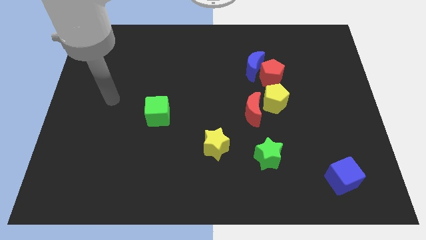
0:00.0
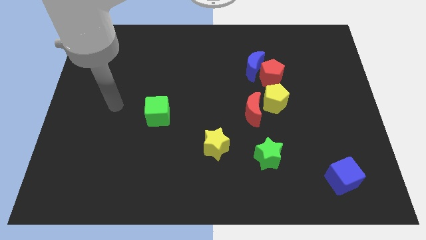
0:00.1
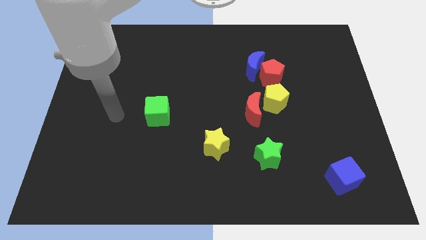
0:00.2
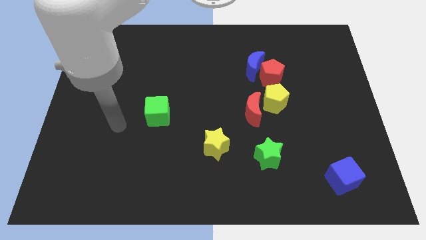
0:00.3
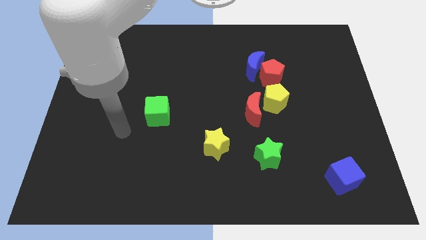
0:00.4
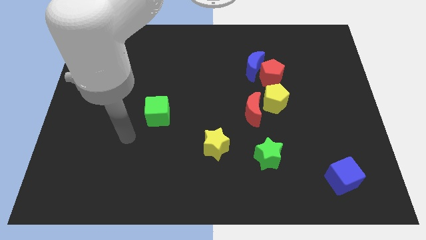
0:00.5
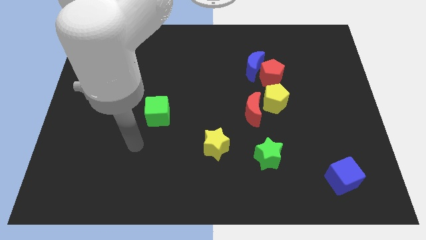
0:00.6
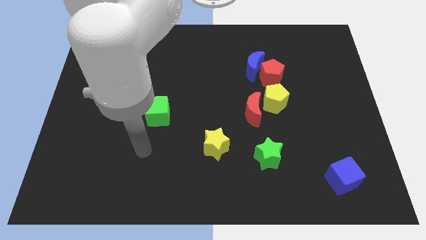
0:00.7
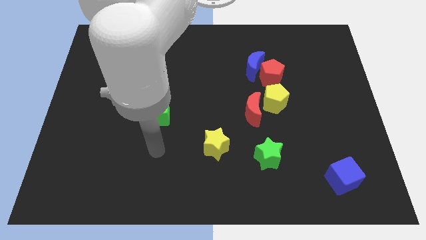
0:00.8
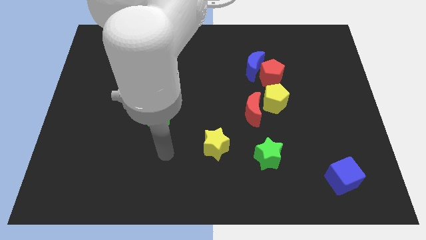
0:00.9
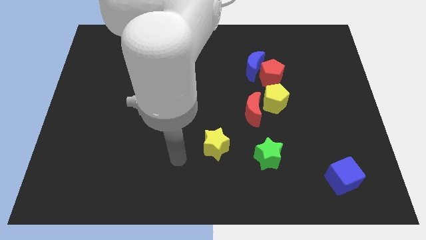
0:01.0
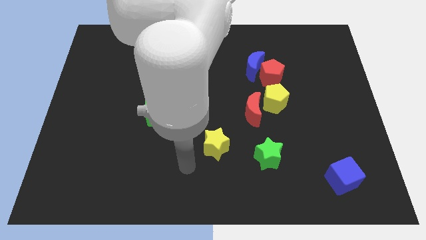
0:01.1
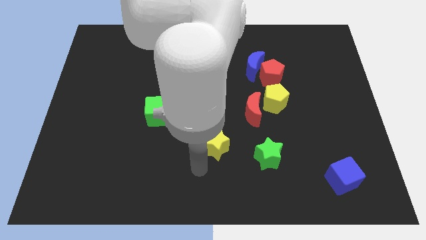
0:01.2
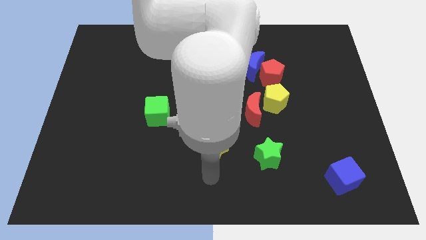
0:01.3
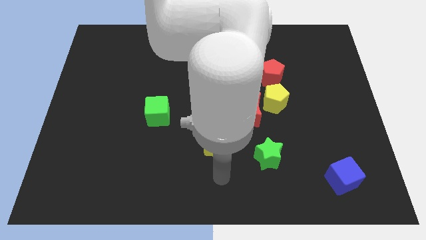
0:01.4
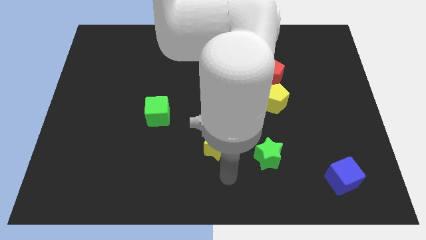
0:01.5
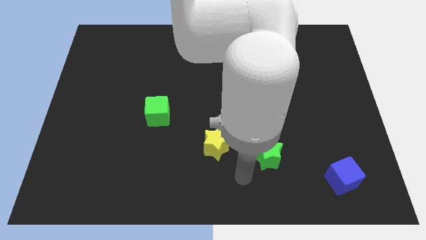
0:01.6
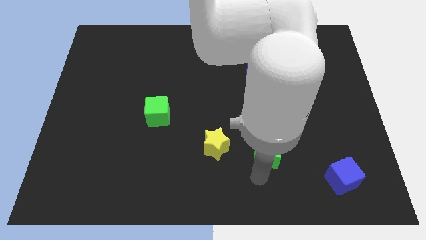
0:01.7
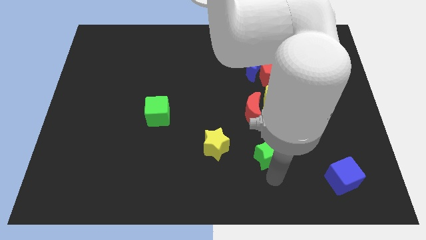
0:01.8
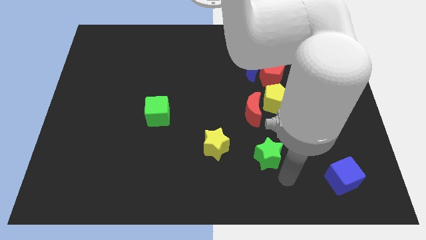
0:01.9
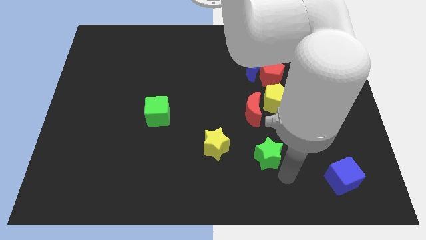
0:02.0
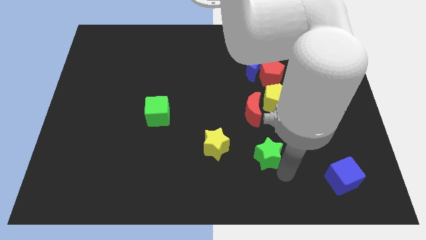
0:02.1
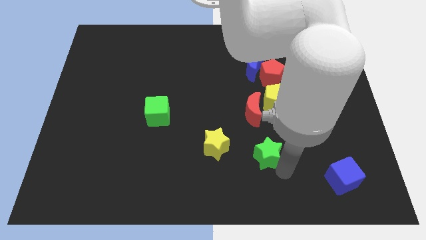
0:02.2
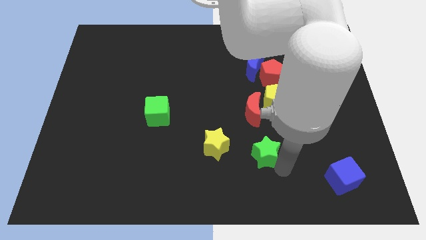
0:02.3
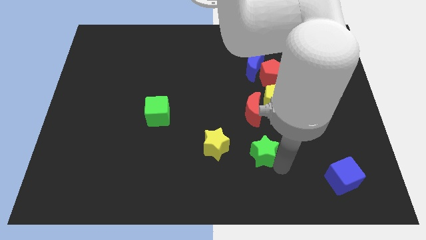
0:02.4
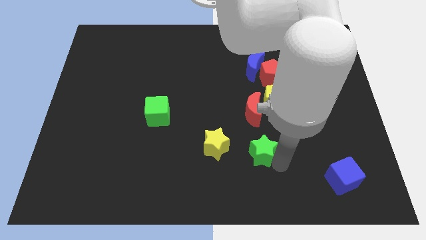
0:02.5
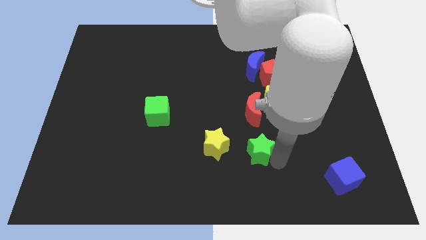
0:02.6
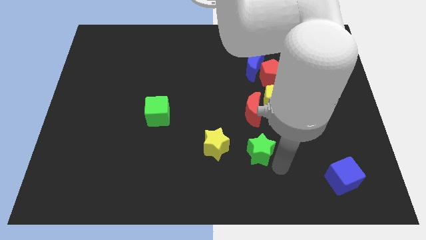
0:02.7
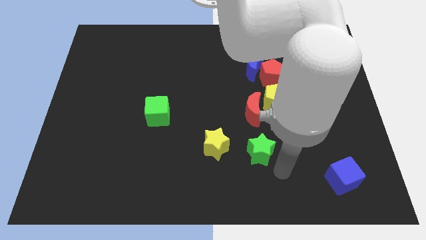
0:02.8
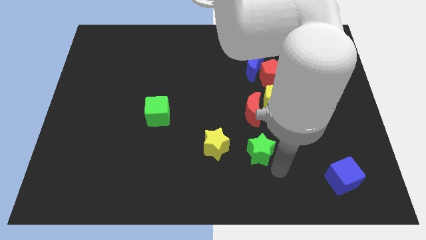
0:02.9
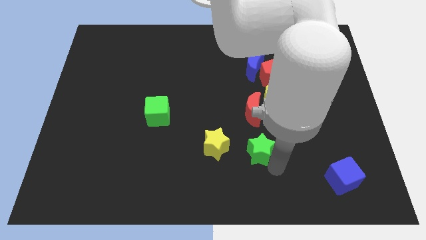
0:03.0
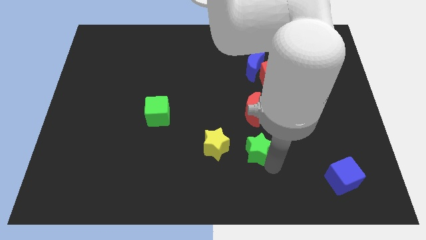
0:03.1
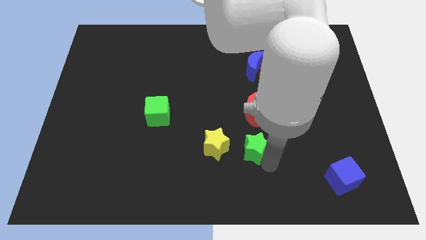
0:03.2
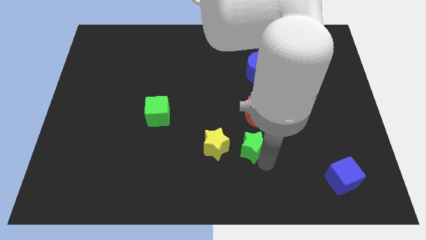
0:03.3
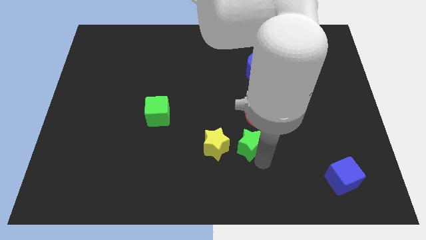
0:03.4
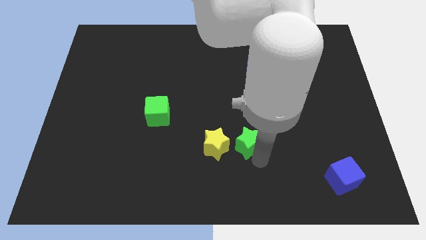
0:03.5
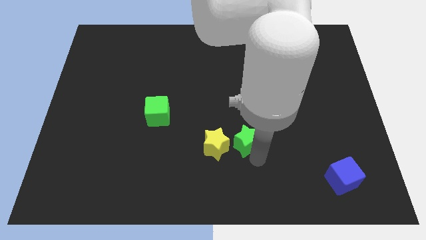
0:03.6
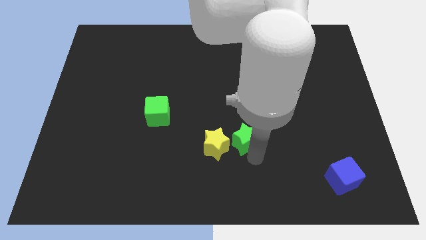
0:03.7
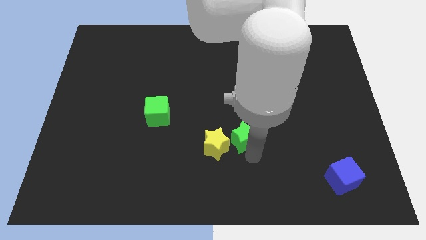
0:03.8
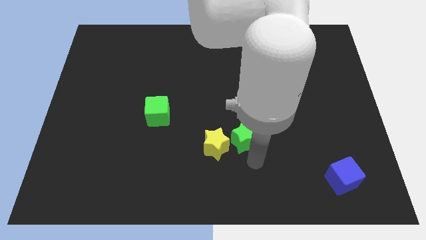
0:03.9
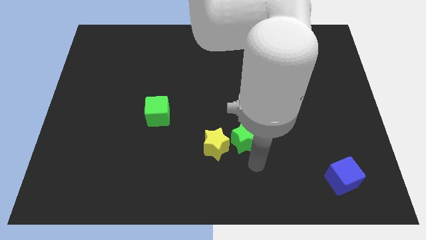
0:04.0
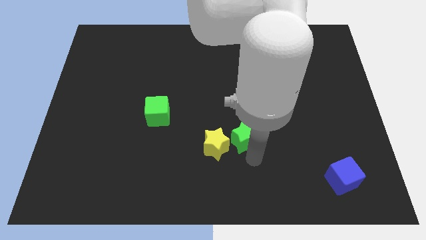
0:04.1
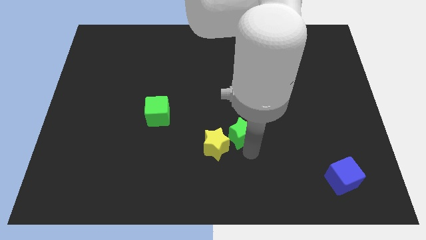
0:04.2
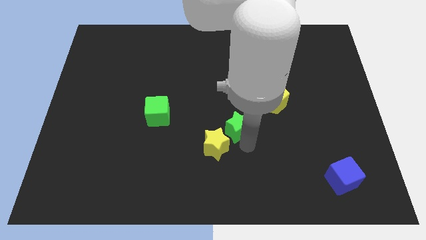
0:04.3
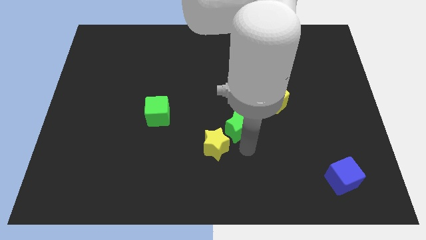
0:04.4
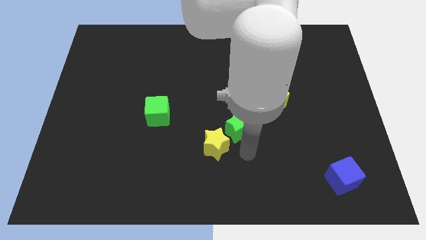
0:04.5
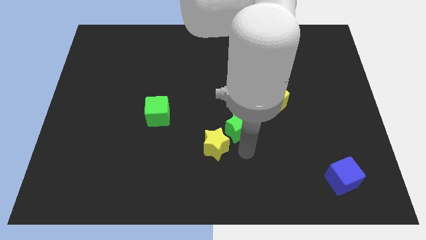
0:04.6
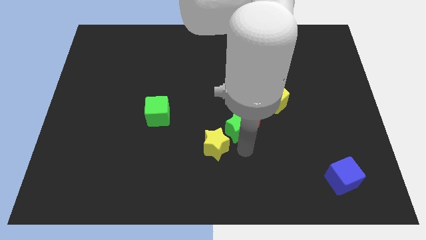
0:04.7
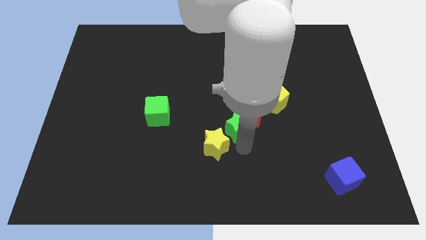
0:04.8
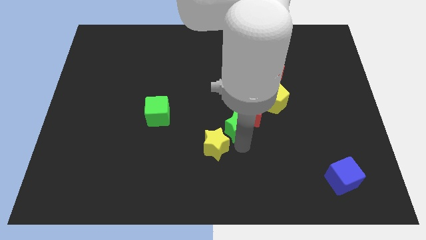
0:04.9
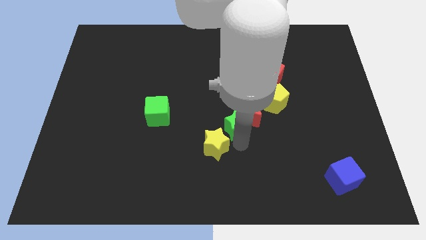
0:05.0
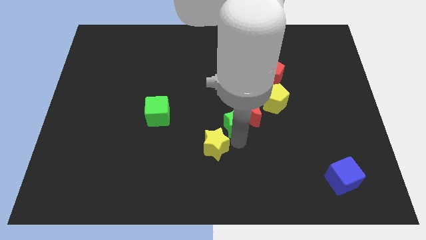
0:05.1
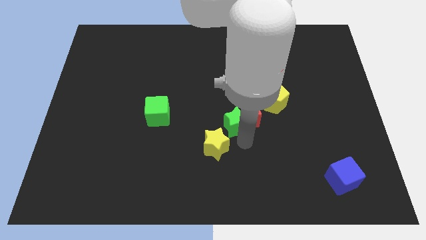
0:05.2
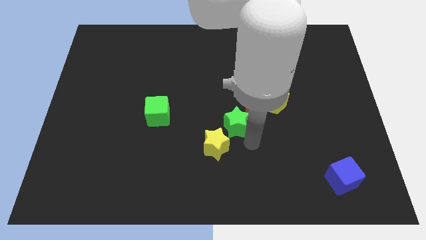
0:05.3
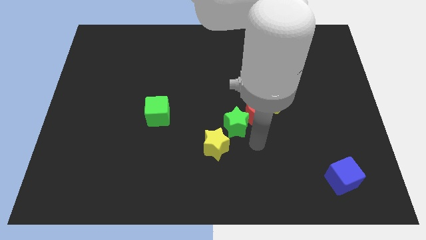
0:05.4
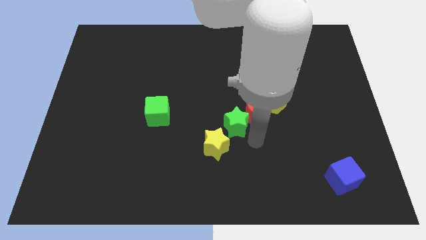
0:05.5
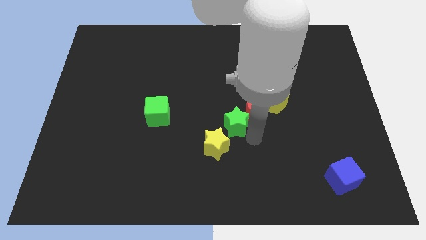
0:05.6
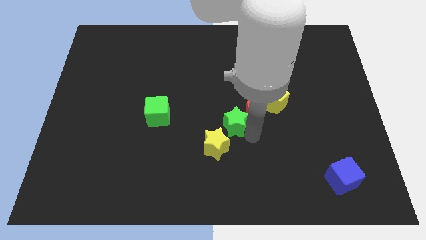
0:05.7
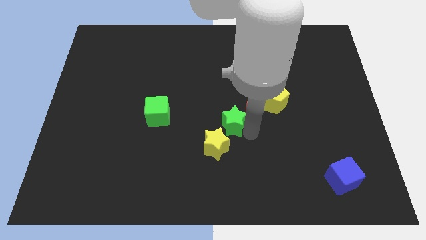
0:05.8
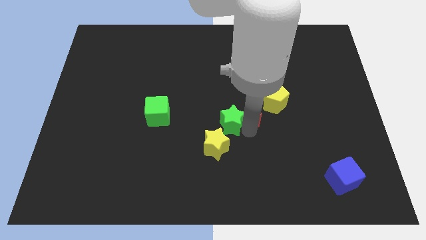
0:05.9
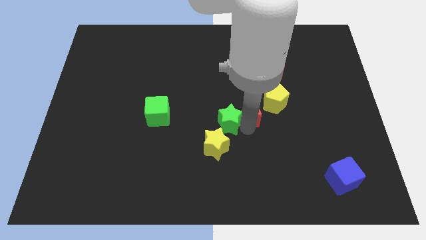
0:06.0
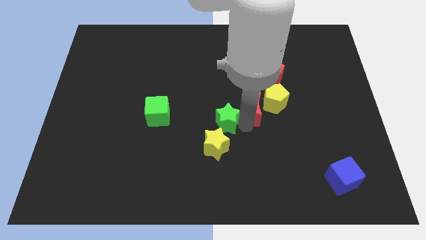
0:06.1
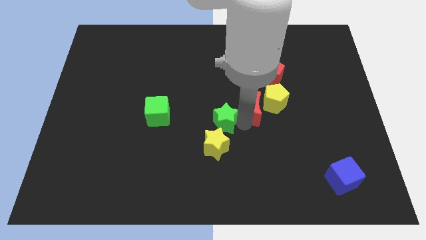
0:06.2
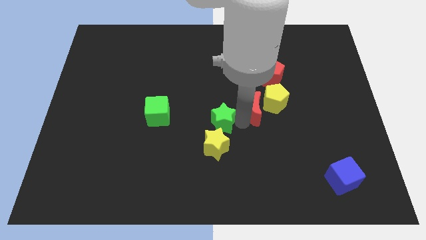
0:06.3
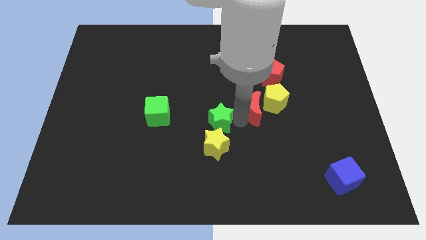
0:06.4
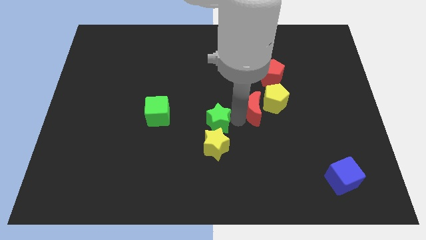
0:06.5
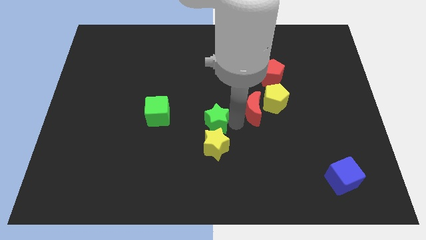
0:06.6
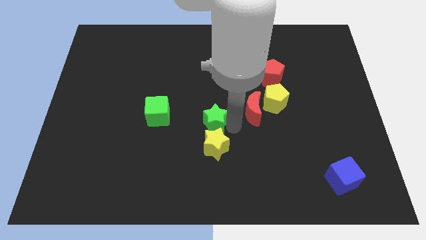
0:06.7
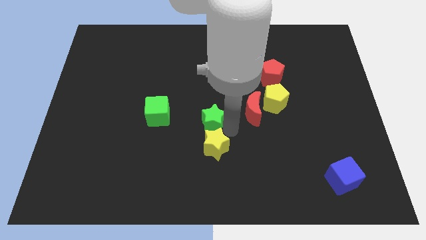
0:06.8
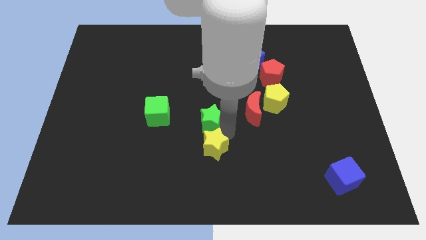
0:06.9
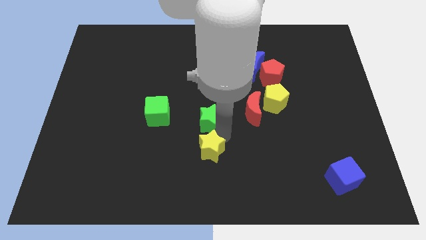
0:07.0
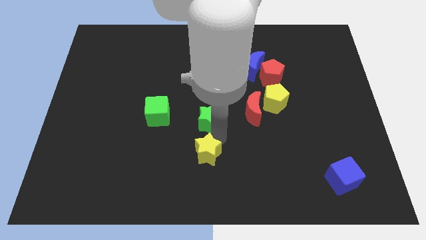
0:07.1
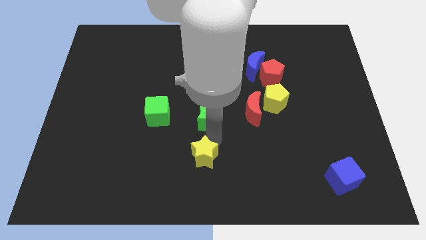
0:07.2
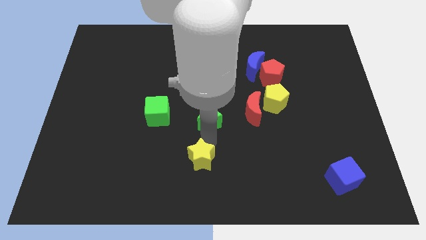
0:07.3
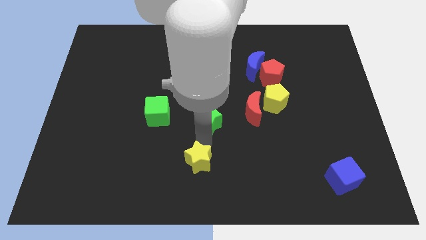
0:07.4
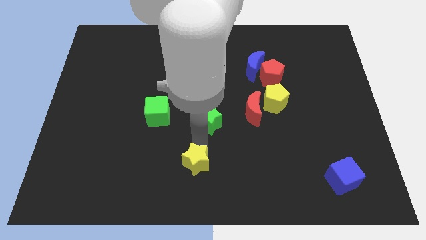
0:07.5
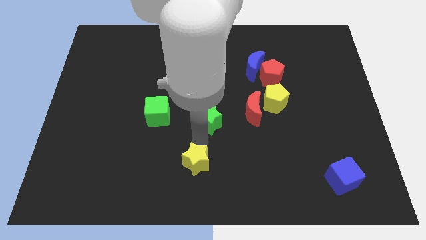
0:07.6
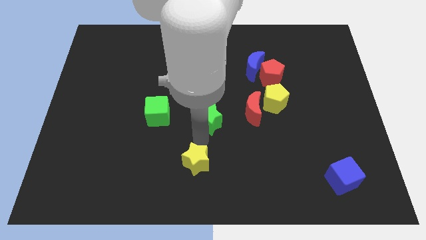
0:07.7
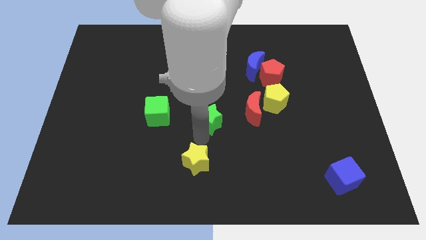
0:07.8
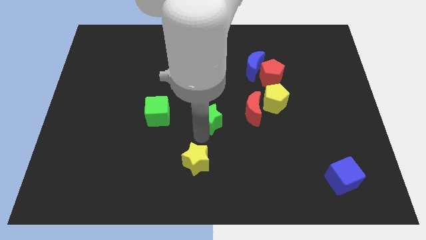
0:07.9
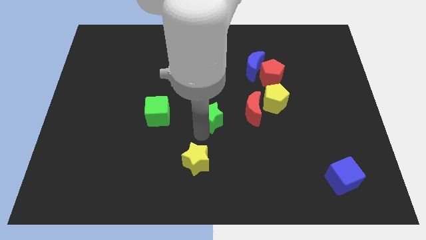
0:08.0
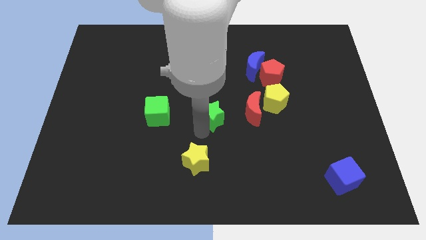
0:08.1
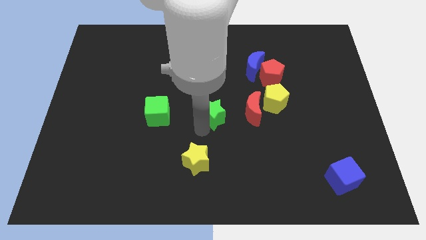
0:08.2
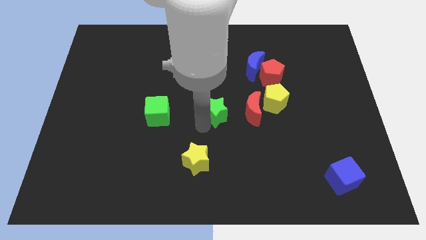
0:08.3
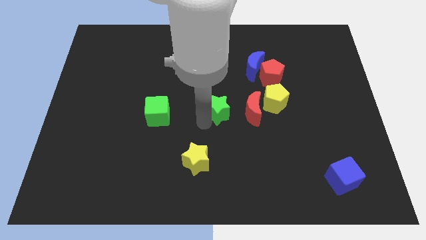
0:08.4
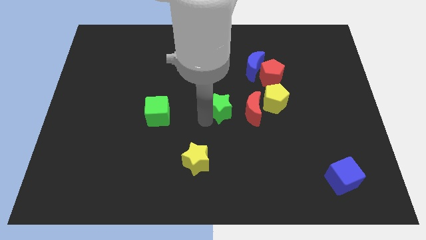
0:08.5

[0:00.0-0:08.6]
push the green star upwards slightly
